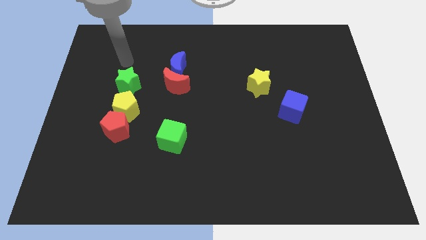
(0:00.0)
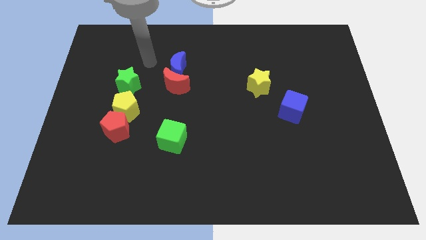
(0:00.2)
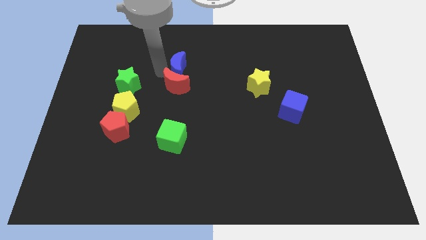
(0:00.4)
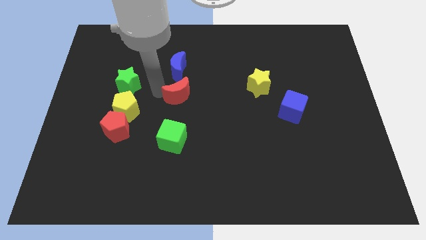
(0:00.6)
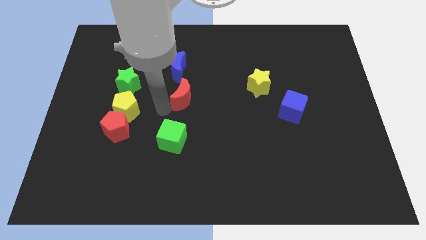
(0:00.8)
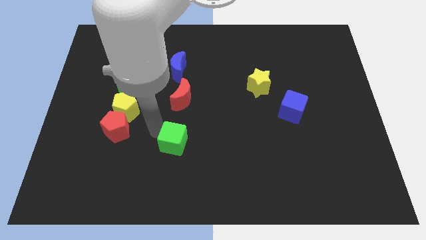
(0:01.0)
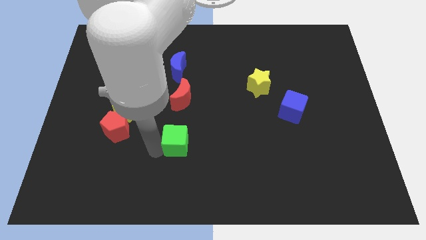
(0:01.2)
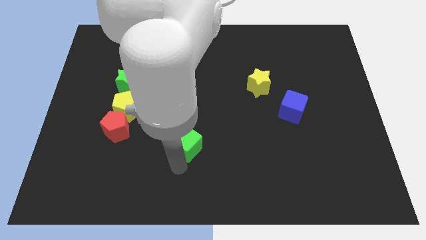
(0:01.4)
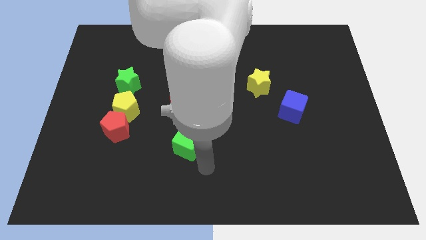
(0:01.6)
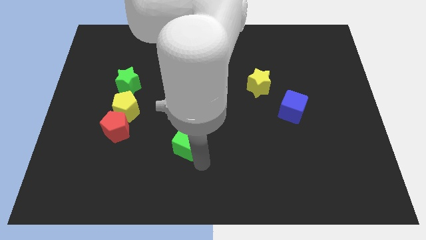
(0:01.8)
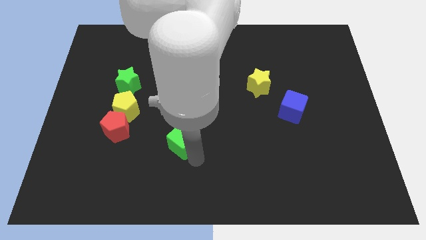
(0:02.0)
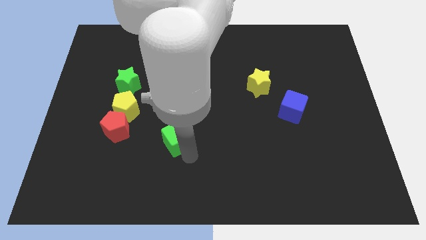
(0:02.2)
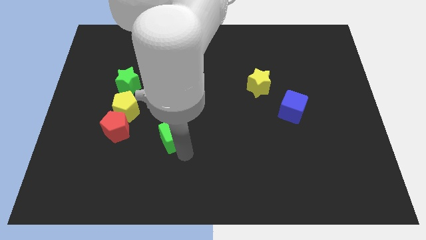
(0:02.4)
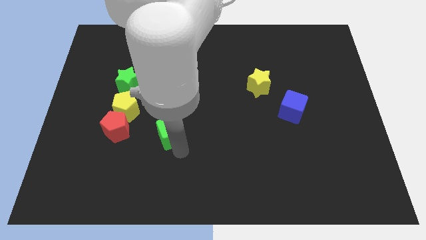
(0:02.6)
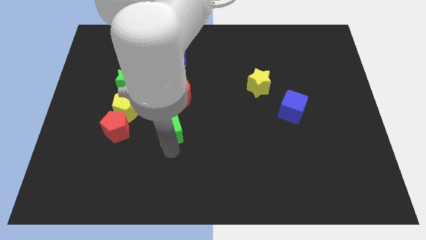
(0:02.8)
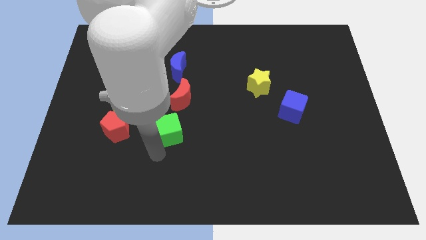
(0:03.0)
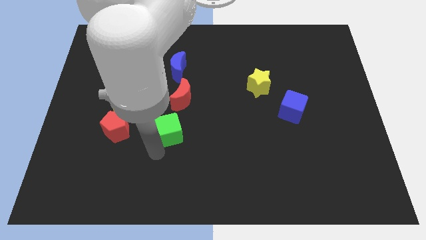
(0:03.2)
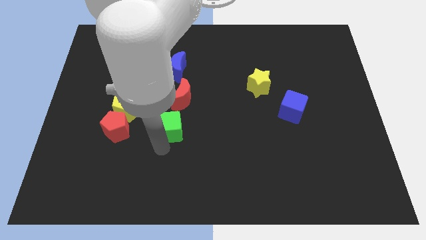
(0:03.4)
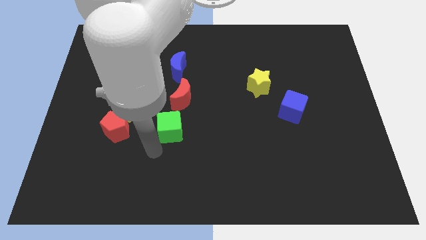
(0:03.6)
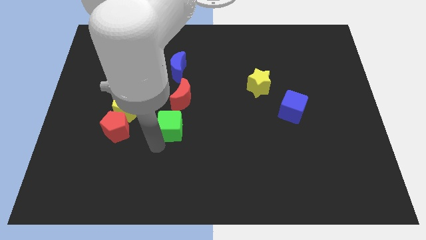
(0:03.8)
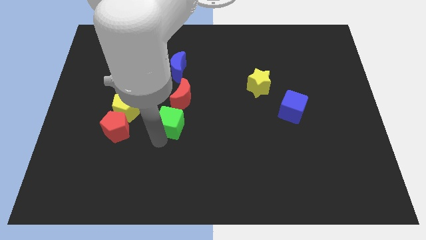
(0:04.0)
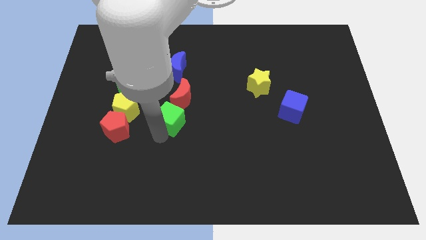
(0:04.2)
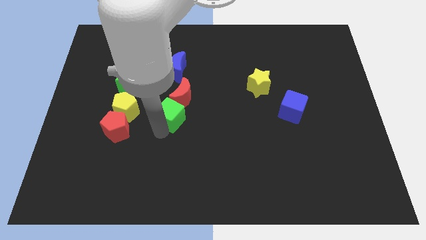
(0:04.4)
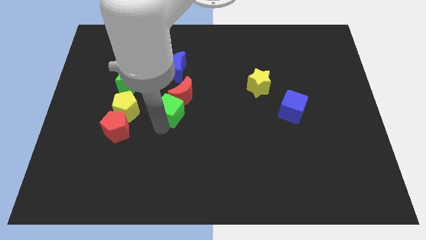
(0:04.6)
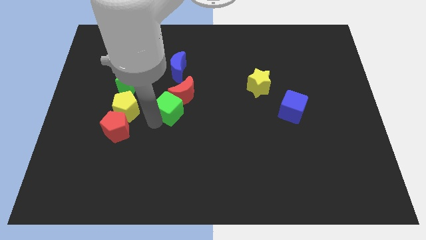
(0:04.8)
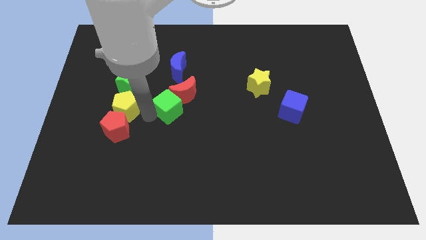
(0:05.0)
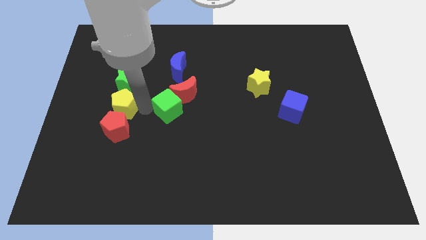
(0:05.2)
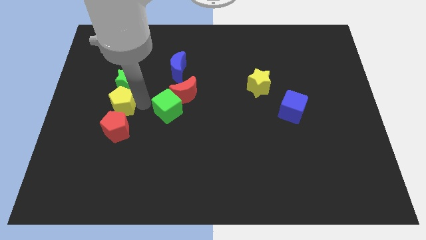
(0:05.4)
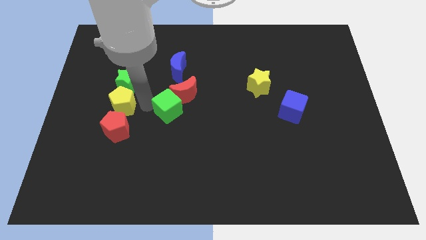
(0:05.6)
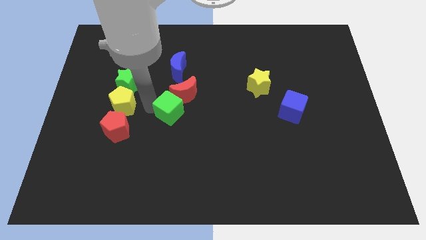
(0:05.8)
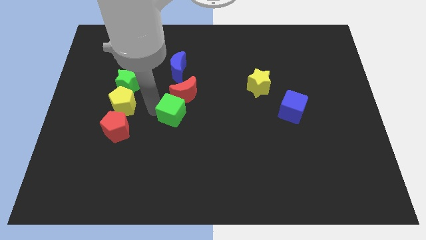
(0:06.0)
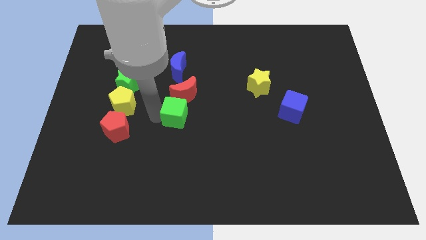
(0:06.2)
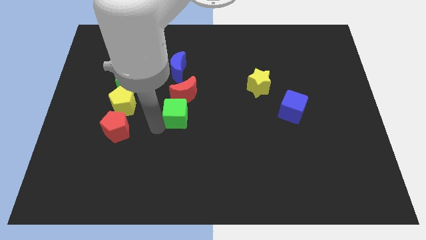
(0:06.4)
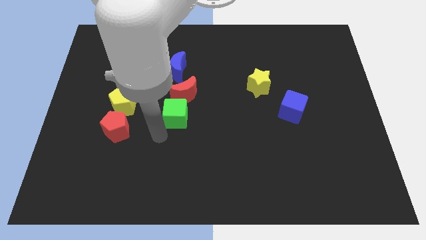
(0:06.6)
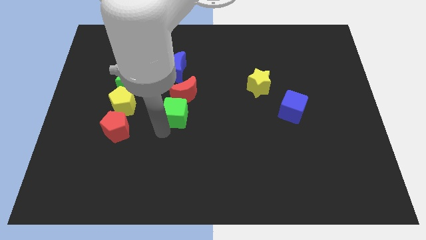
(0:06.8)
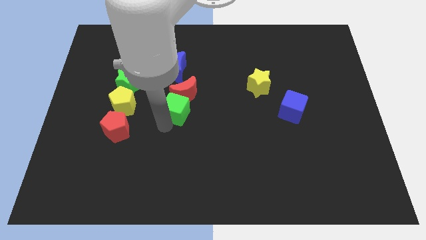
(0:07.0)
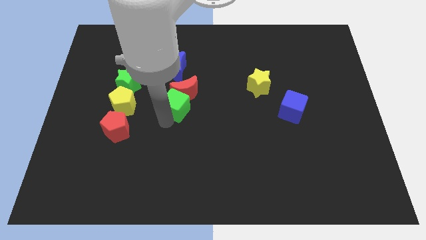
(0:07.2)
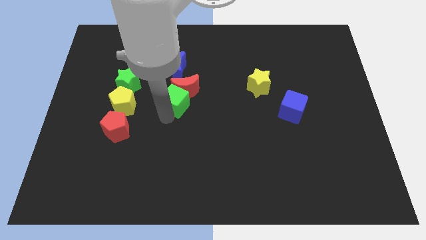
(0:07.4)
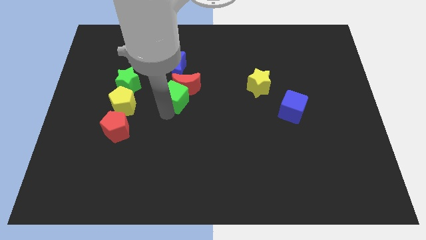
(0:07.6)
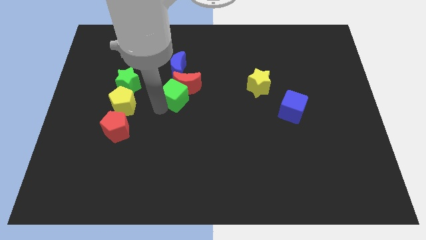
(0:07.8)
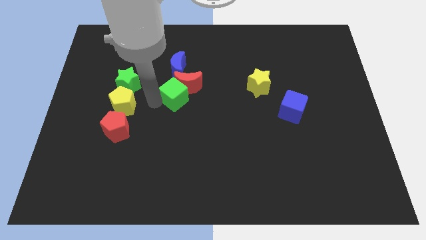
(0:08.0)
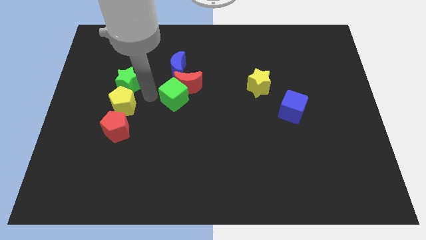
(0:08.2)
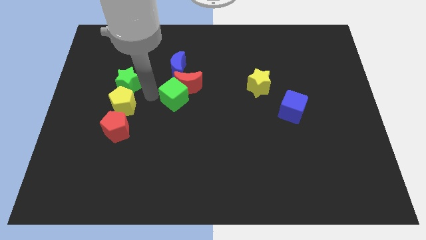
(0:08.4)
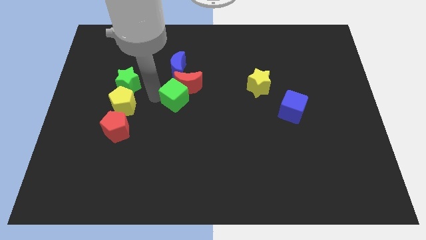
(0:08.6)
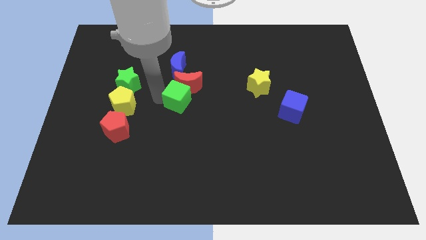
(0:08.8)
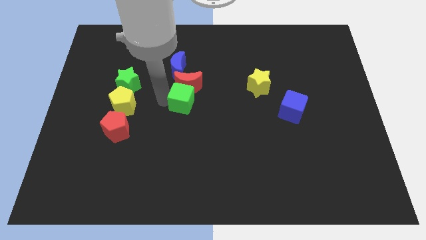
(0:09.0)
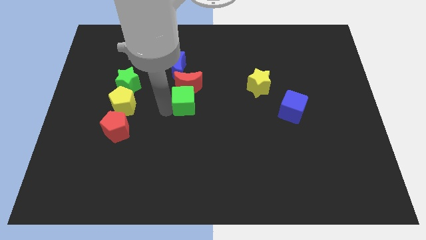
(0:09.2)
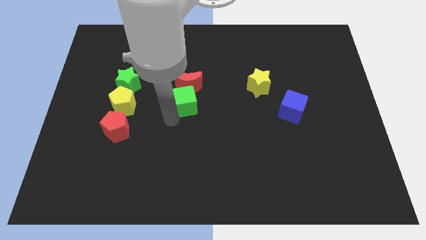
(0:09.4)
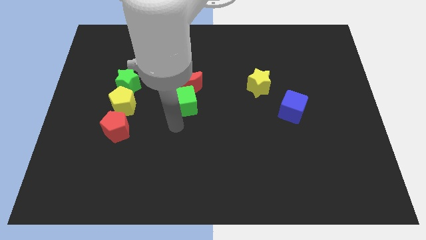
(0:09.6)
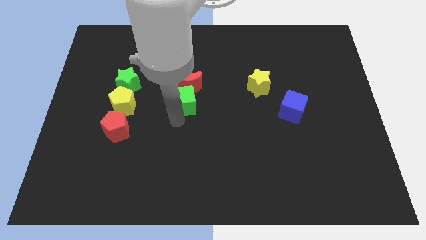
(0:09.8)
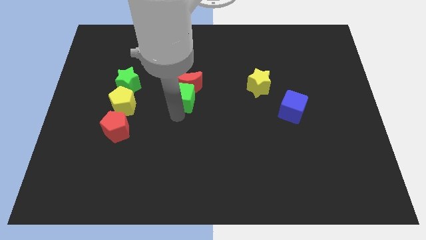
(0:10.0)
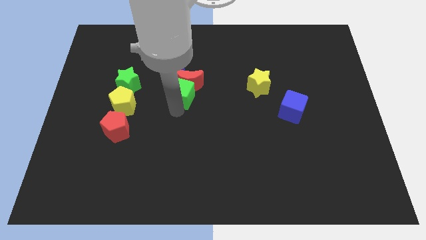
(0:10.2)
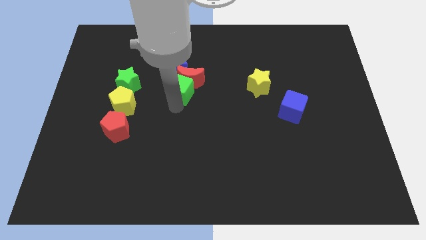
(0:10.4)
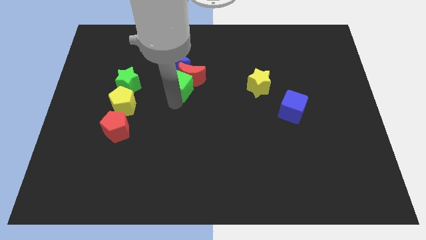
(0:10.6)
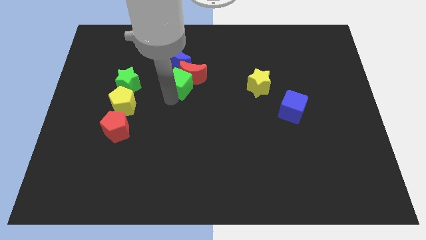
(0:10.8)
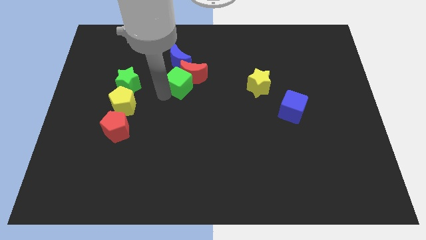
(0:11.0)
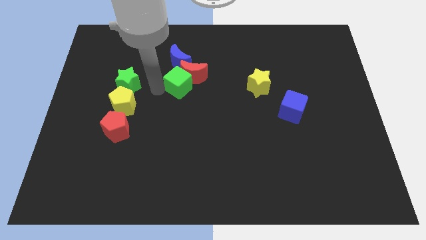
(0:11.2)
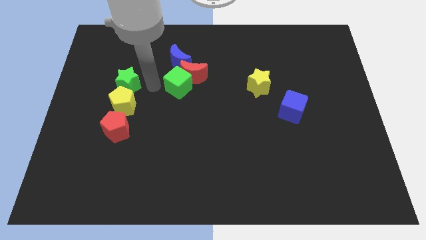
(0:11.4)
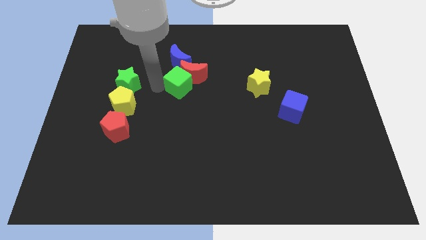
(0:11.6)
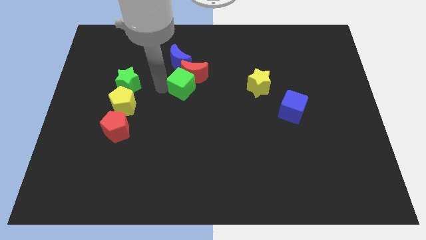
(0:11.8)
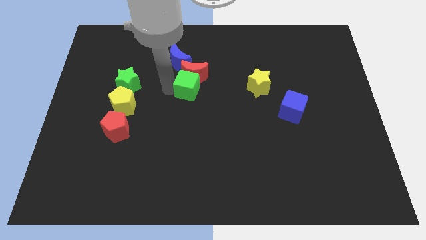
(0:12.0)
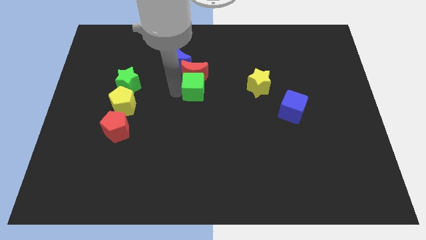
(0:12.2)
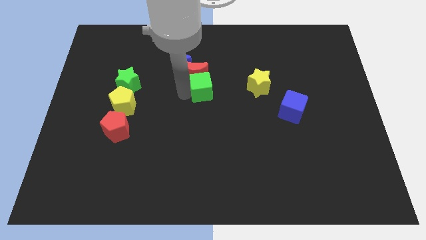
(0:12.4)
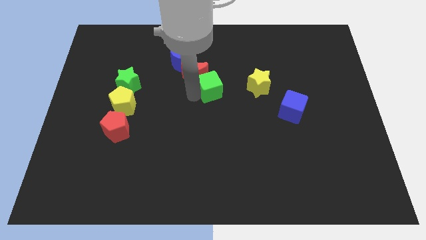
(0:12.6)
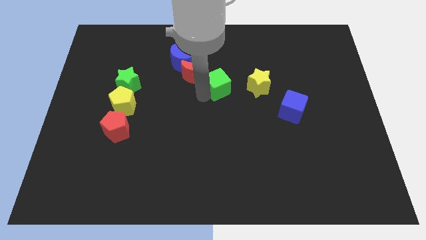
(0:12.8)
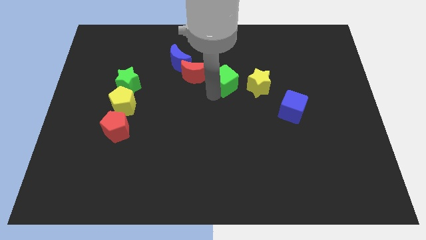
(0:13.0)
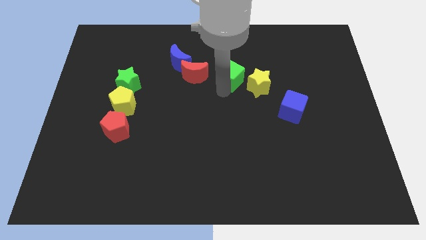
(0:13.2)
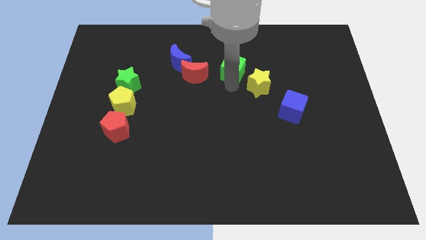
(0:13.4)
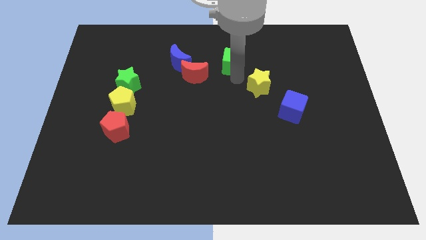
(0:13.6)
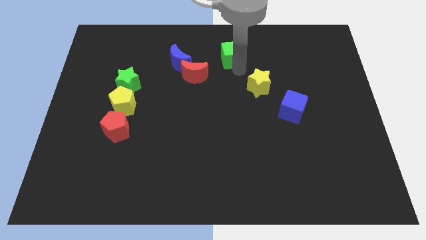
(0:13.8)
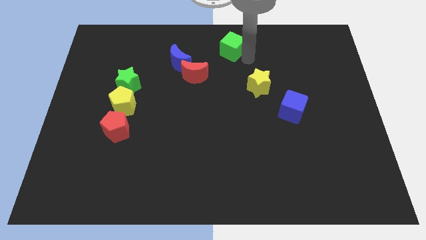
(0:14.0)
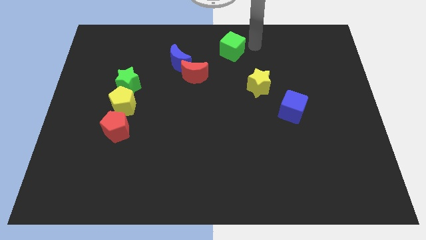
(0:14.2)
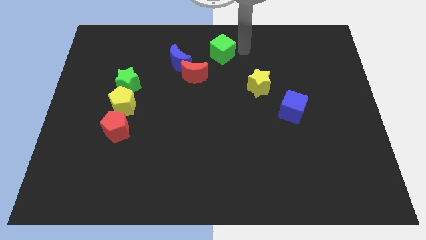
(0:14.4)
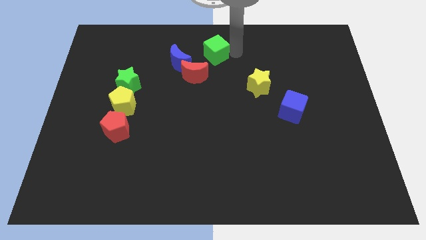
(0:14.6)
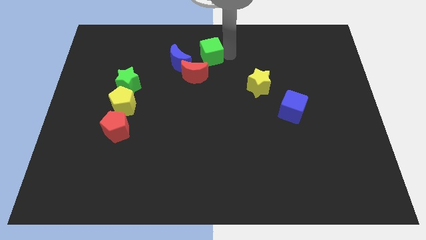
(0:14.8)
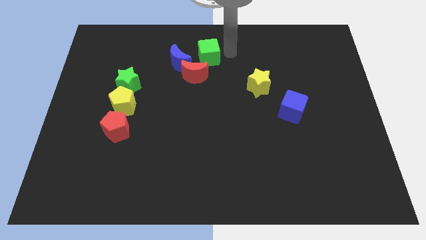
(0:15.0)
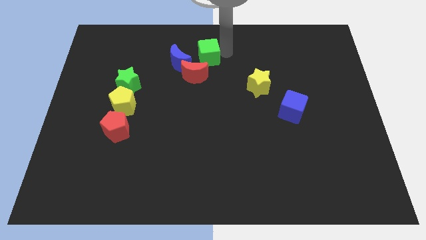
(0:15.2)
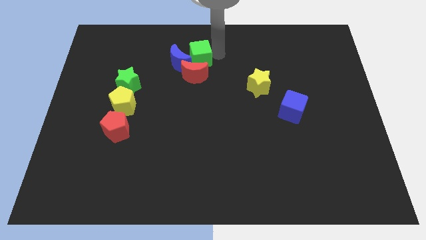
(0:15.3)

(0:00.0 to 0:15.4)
put the green cube close to the blue moon
